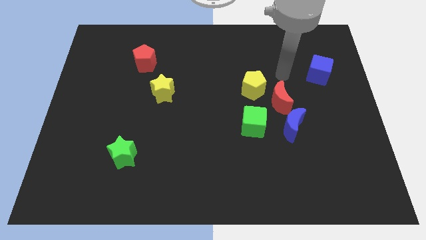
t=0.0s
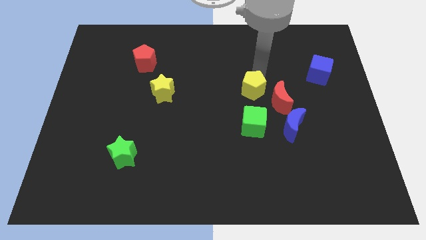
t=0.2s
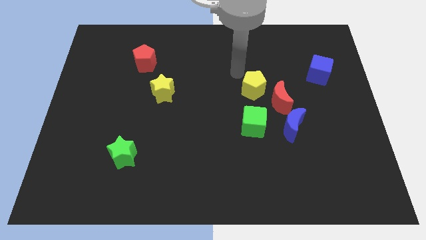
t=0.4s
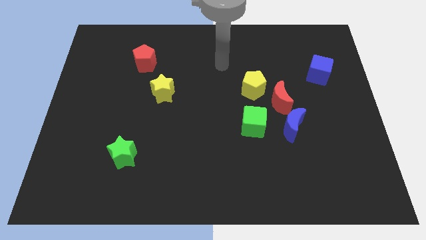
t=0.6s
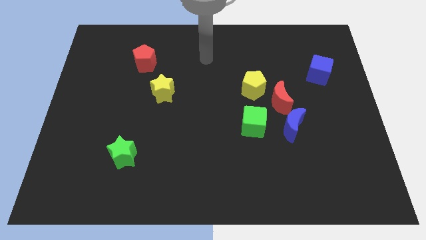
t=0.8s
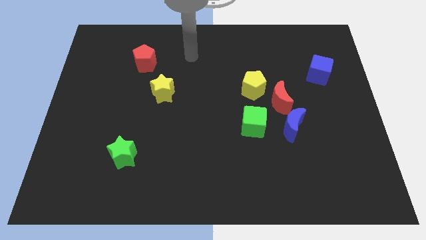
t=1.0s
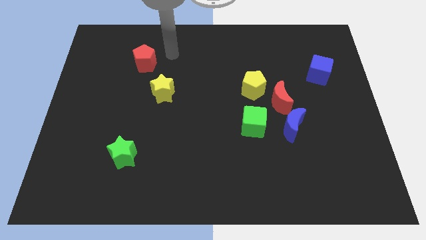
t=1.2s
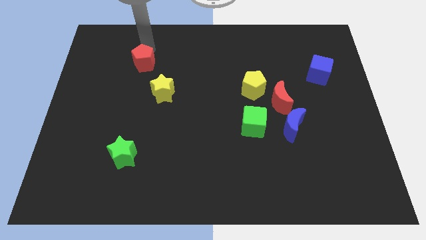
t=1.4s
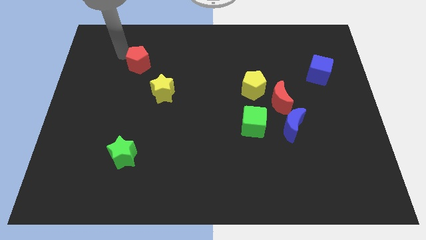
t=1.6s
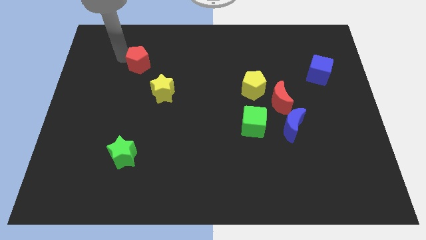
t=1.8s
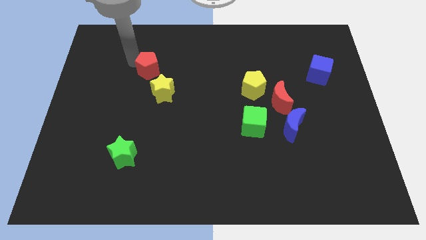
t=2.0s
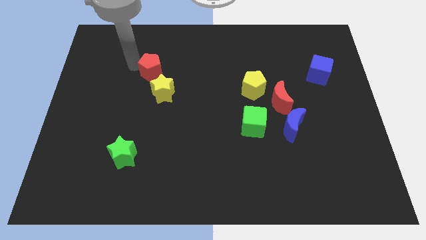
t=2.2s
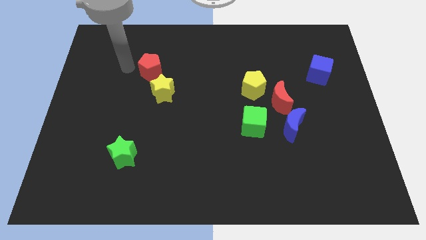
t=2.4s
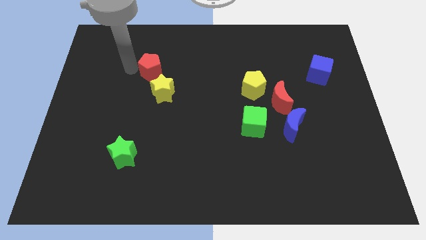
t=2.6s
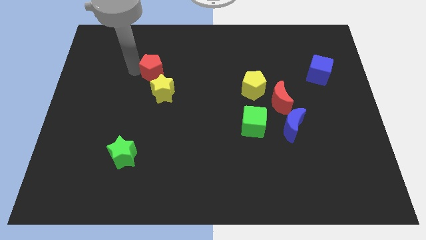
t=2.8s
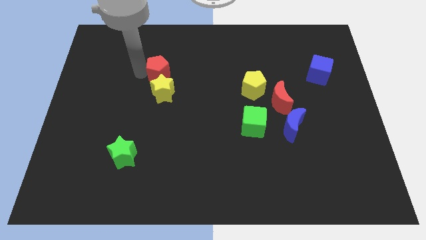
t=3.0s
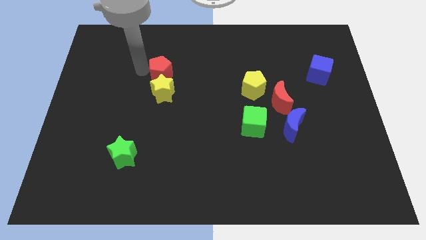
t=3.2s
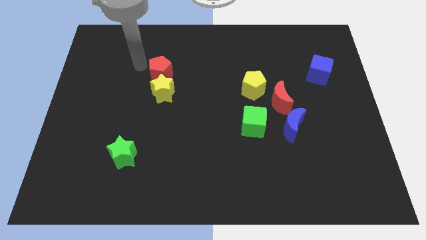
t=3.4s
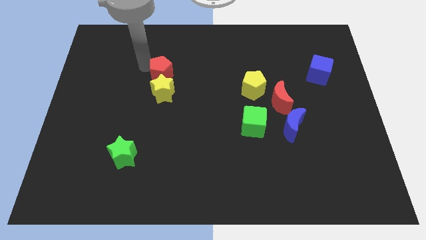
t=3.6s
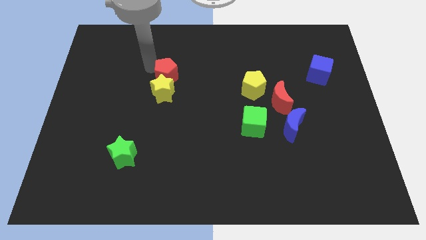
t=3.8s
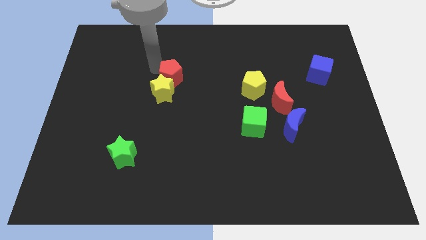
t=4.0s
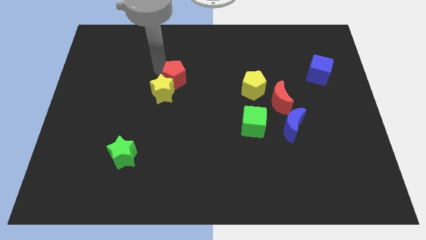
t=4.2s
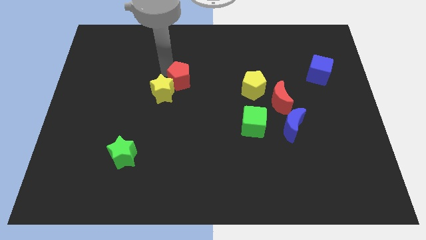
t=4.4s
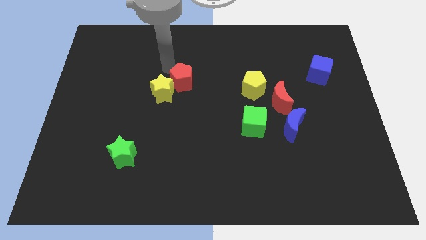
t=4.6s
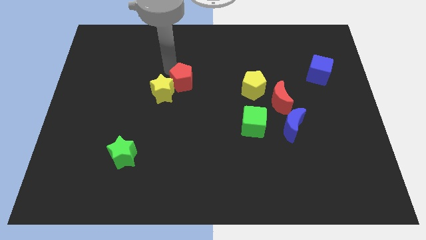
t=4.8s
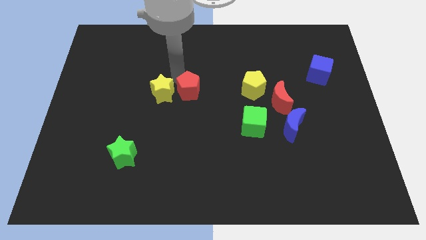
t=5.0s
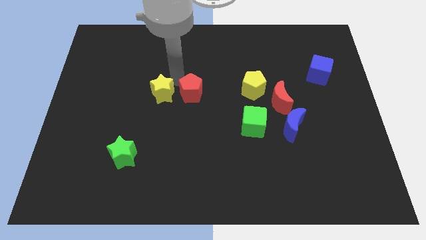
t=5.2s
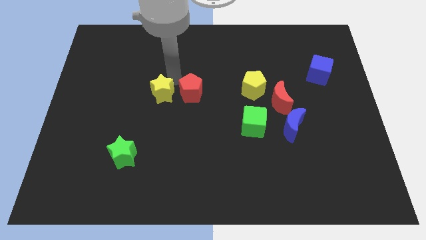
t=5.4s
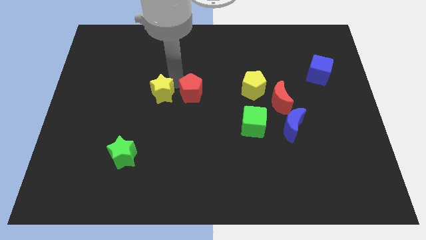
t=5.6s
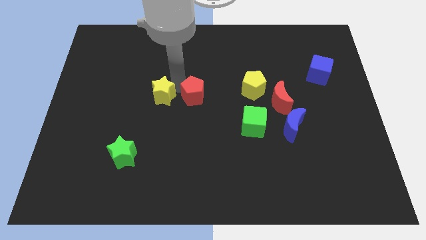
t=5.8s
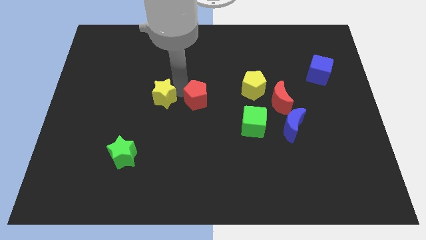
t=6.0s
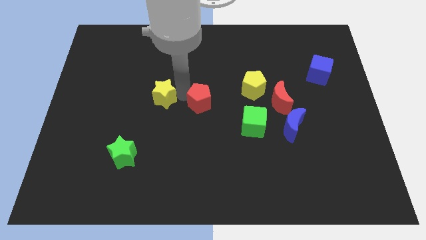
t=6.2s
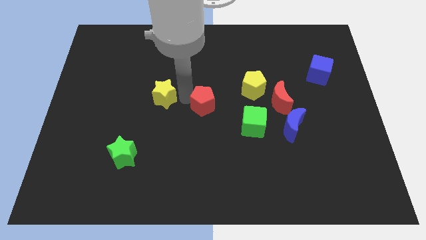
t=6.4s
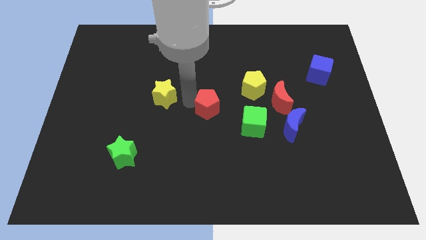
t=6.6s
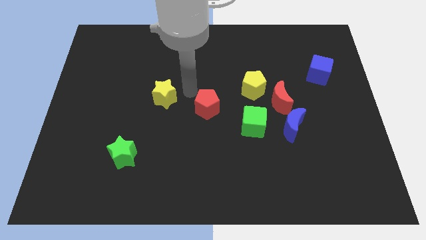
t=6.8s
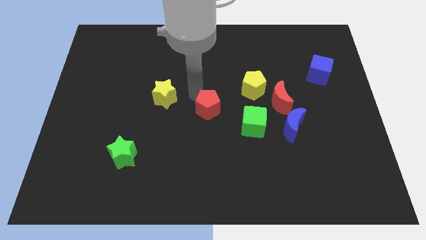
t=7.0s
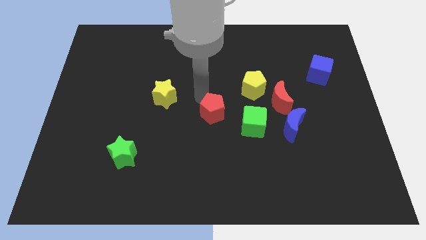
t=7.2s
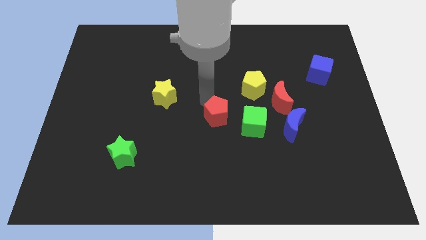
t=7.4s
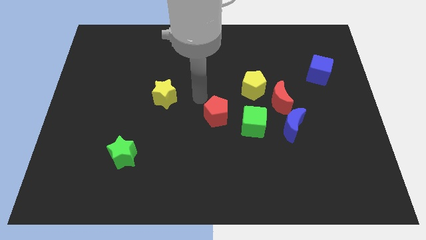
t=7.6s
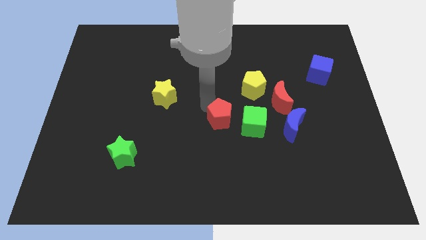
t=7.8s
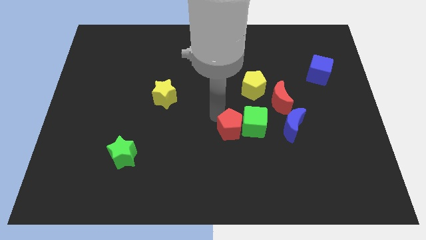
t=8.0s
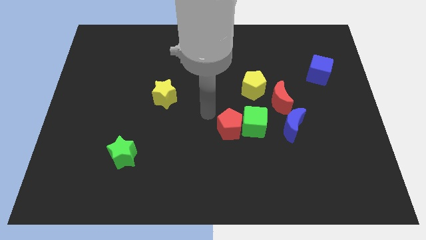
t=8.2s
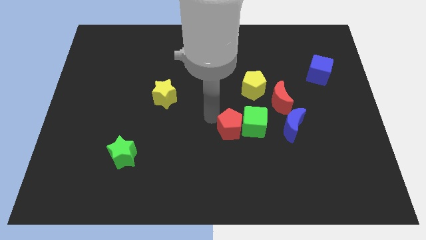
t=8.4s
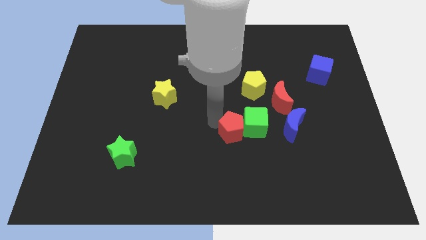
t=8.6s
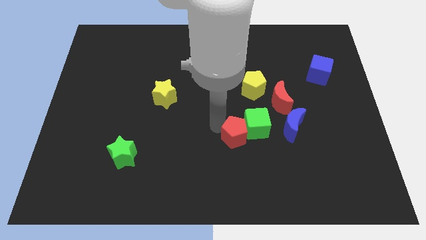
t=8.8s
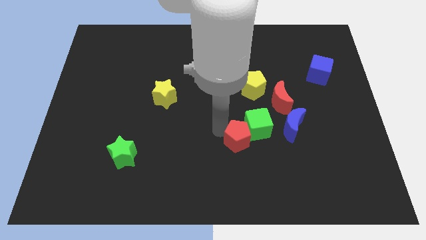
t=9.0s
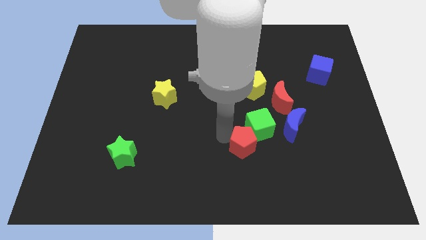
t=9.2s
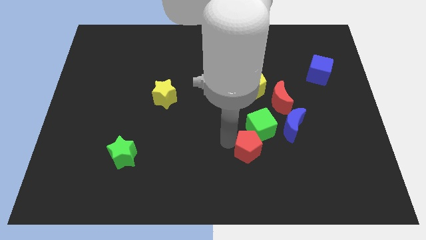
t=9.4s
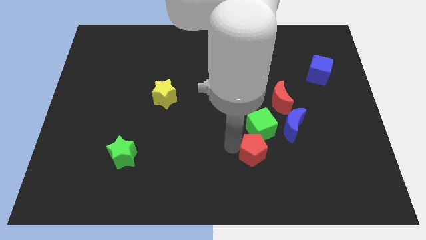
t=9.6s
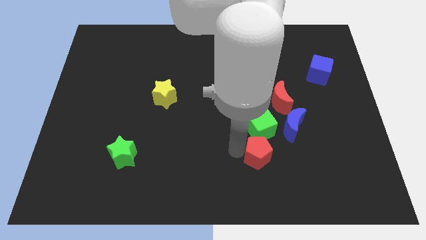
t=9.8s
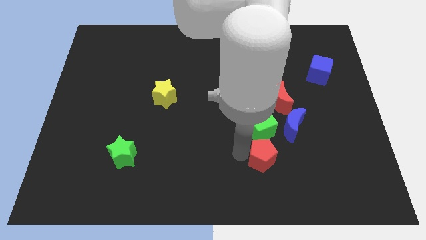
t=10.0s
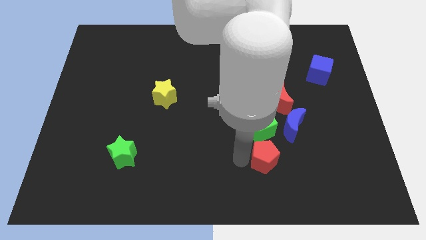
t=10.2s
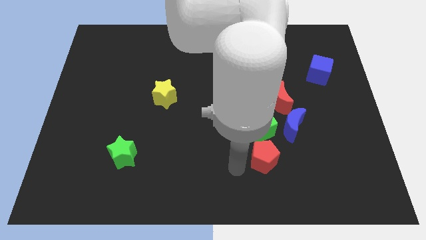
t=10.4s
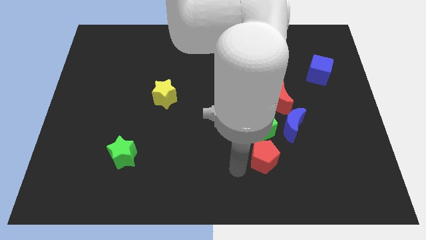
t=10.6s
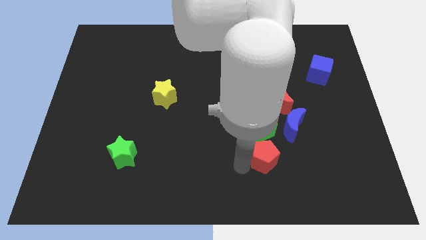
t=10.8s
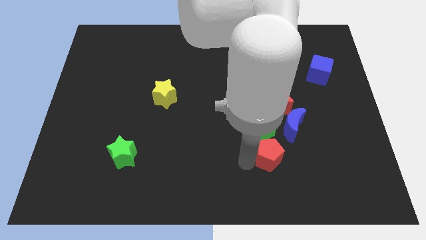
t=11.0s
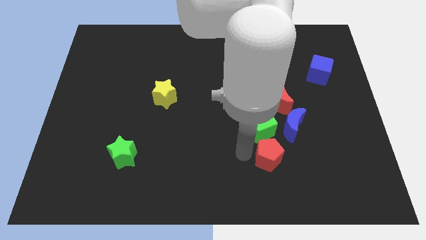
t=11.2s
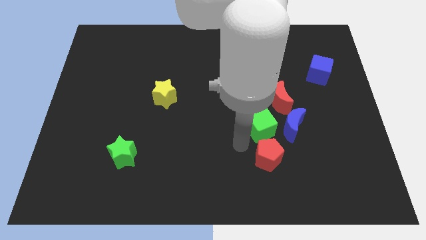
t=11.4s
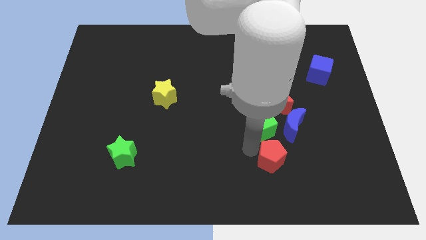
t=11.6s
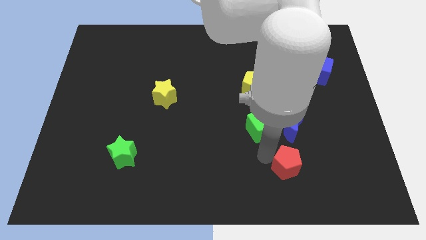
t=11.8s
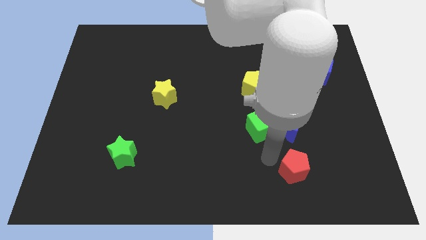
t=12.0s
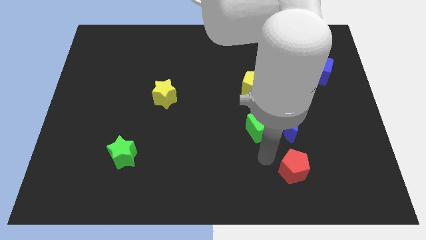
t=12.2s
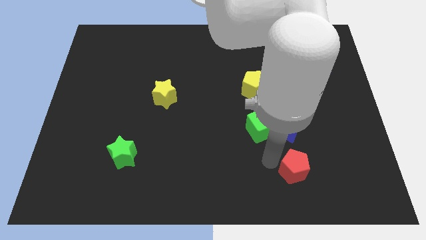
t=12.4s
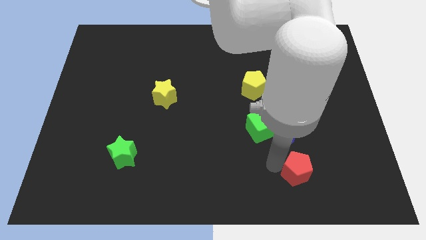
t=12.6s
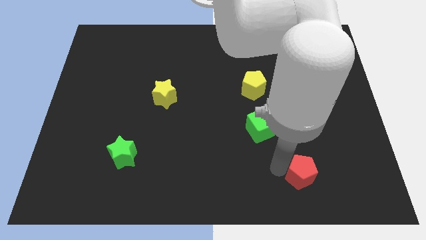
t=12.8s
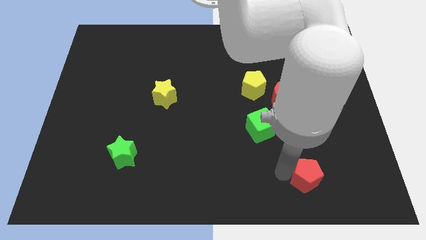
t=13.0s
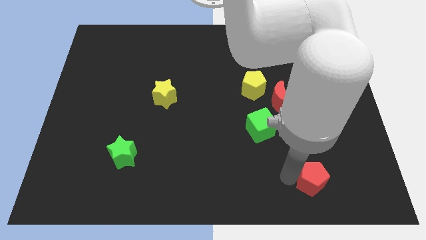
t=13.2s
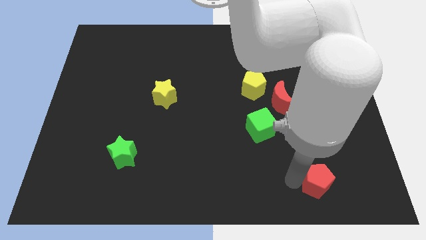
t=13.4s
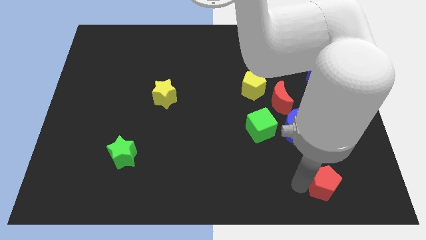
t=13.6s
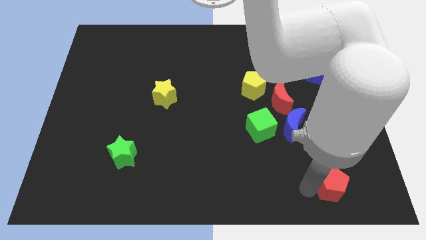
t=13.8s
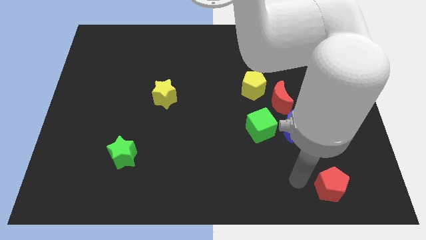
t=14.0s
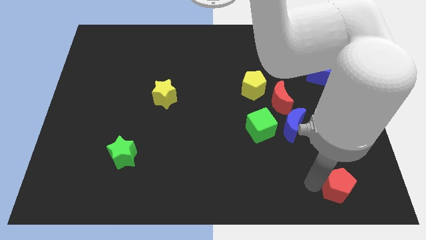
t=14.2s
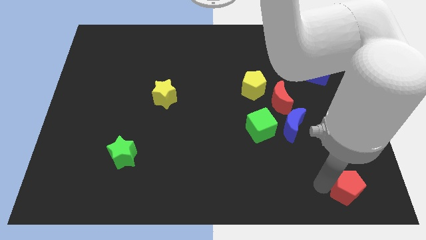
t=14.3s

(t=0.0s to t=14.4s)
push the red pentagon to the bottom right of the board
